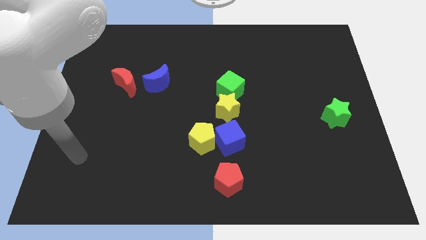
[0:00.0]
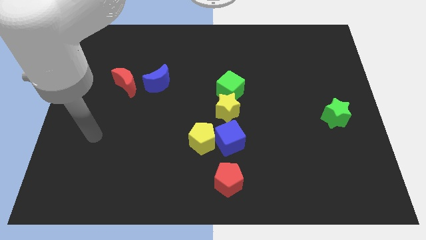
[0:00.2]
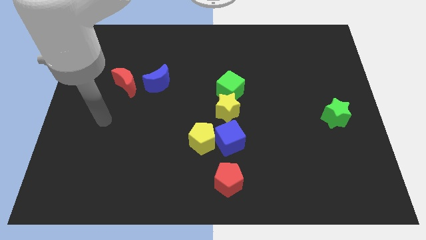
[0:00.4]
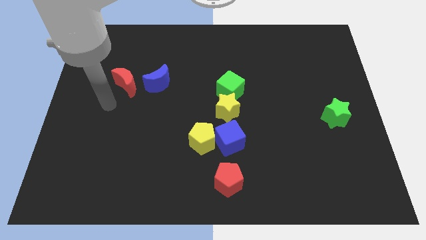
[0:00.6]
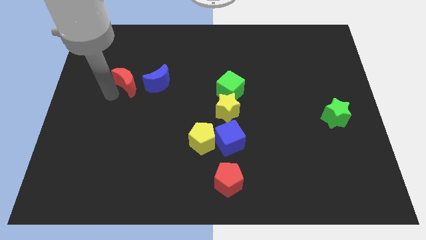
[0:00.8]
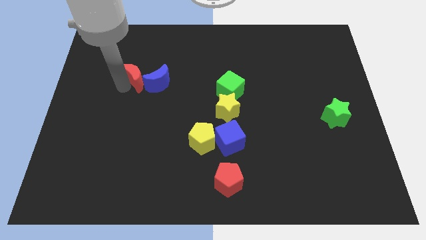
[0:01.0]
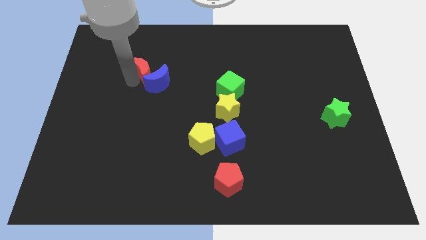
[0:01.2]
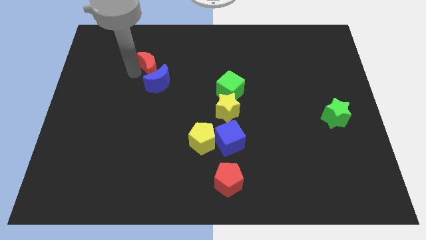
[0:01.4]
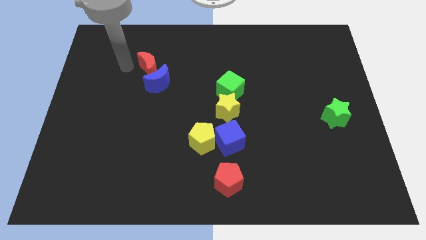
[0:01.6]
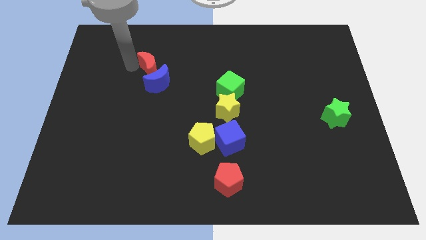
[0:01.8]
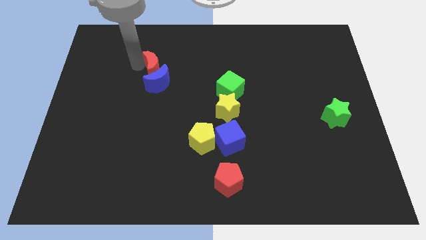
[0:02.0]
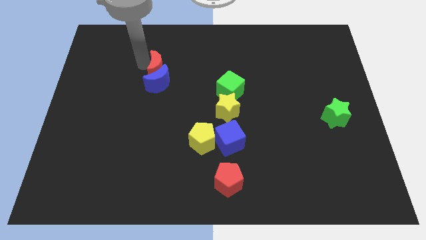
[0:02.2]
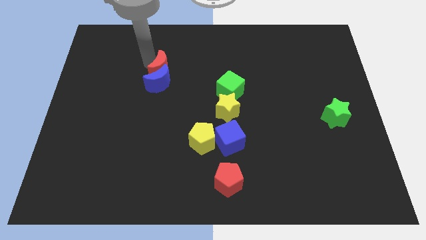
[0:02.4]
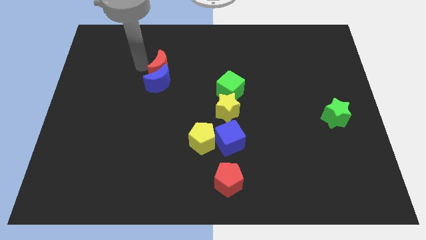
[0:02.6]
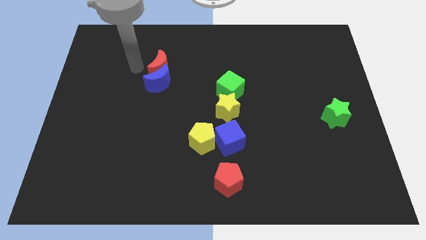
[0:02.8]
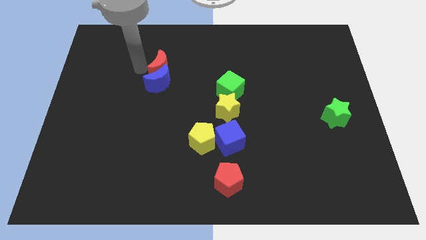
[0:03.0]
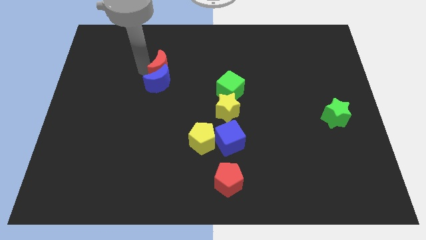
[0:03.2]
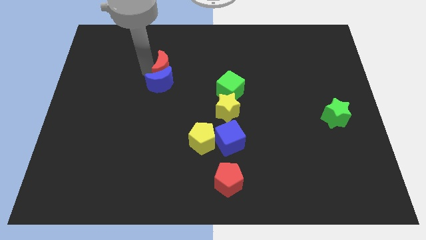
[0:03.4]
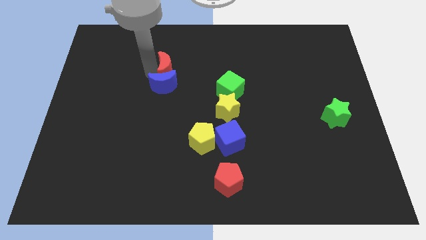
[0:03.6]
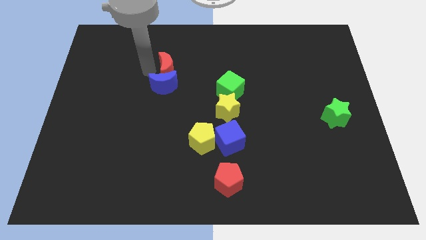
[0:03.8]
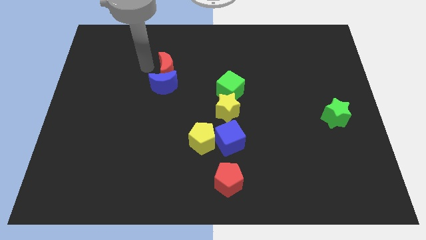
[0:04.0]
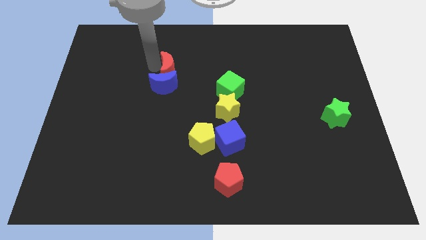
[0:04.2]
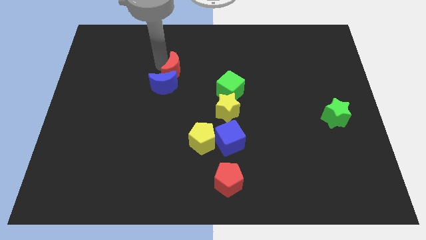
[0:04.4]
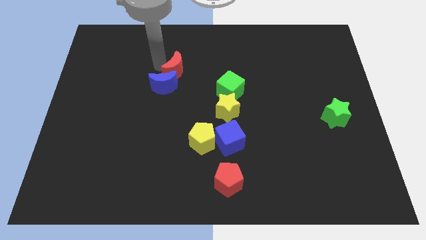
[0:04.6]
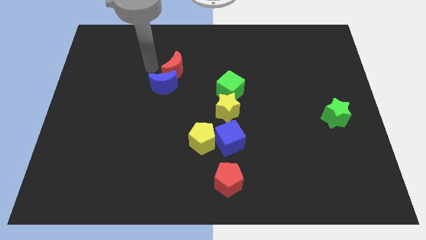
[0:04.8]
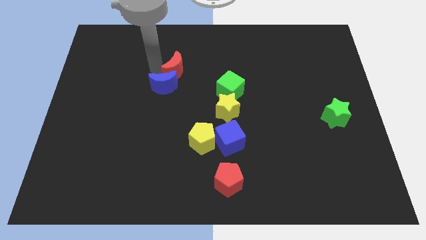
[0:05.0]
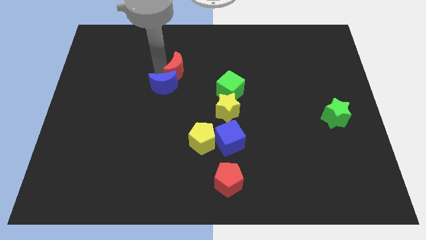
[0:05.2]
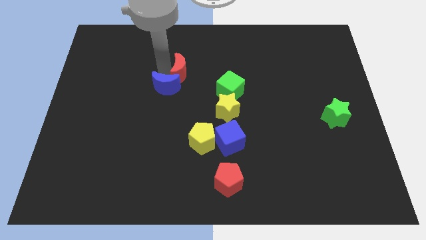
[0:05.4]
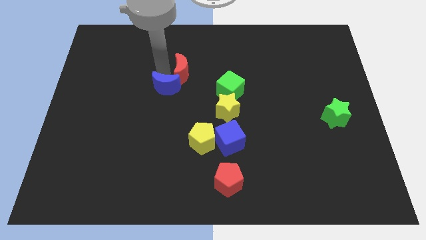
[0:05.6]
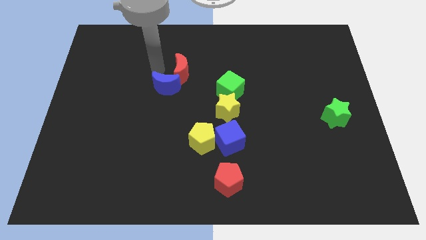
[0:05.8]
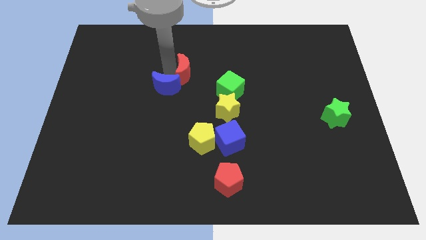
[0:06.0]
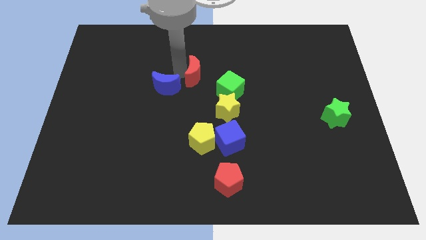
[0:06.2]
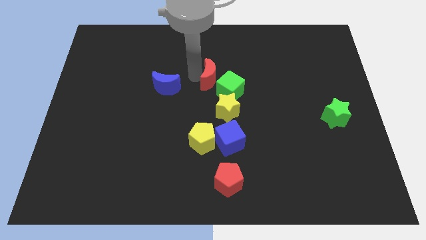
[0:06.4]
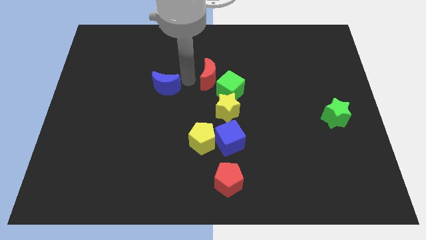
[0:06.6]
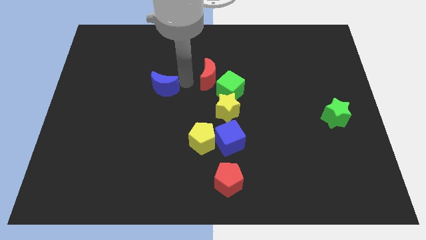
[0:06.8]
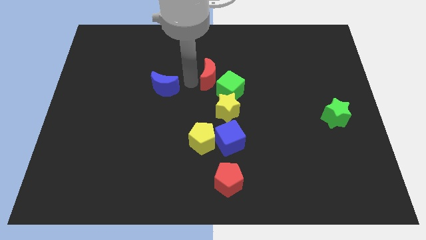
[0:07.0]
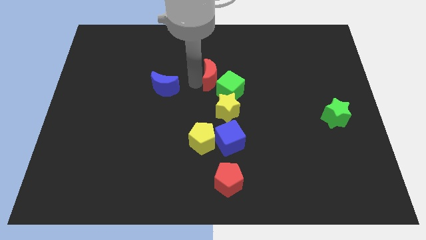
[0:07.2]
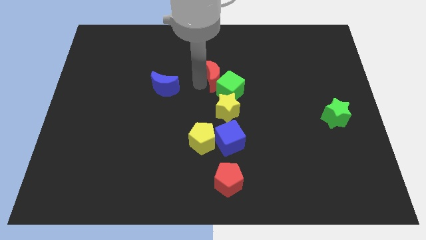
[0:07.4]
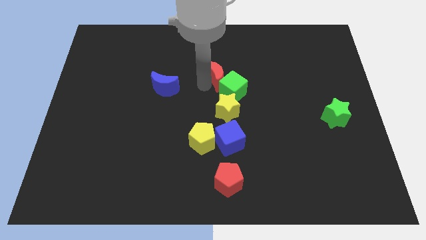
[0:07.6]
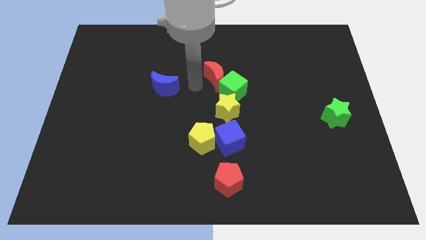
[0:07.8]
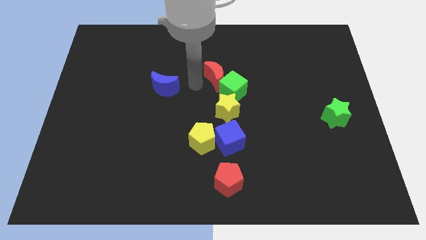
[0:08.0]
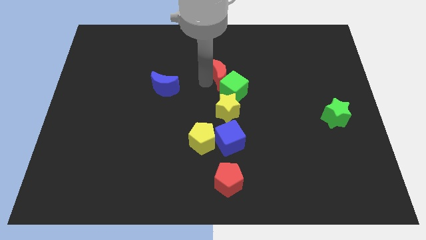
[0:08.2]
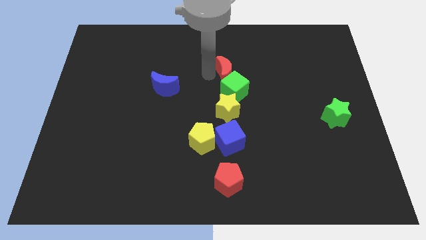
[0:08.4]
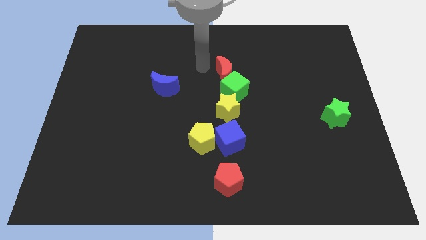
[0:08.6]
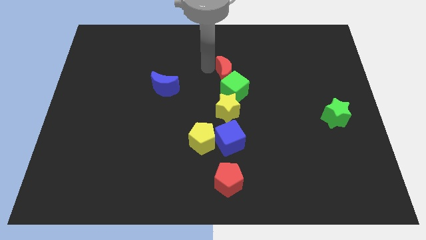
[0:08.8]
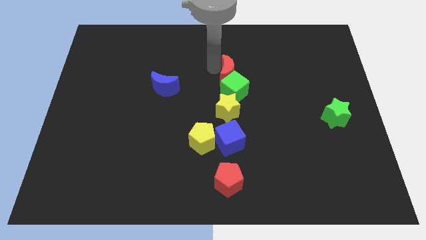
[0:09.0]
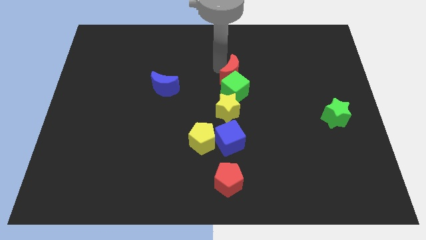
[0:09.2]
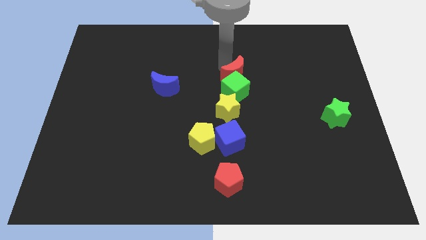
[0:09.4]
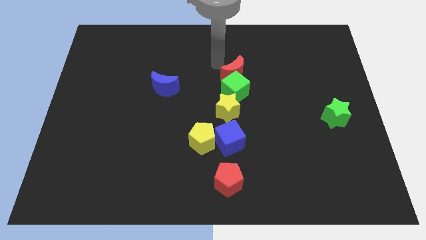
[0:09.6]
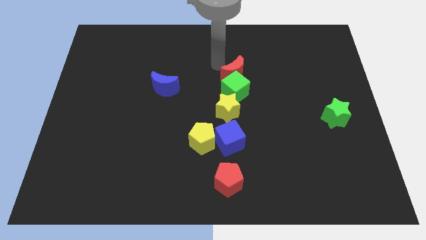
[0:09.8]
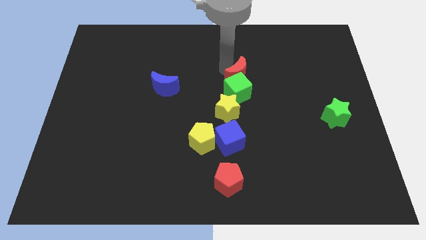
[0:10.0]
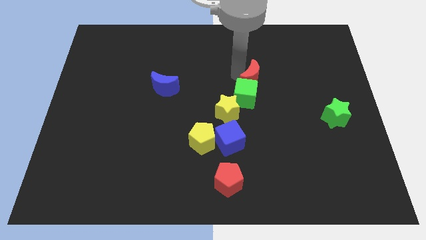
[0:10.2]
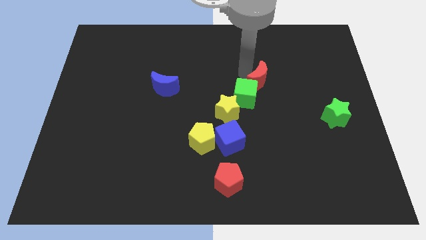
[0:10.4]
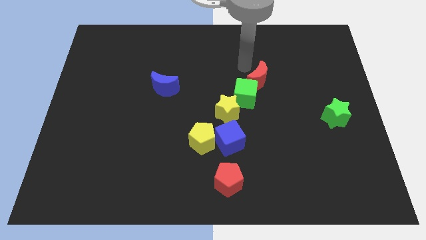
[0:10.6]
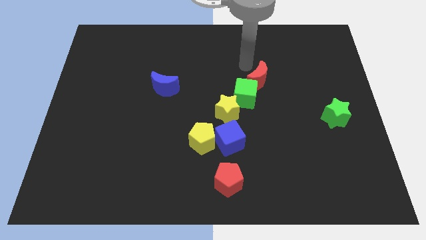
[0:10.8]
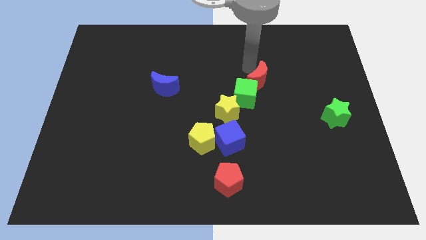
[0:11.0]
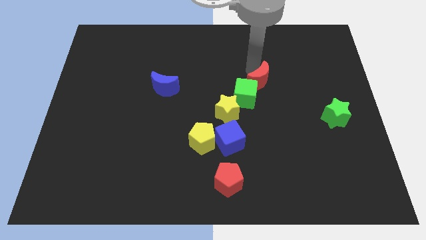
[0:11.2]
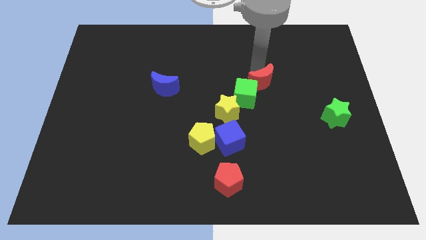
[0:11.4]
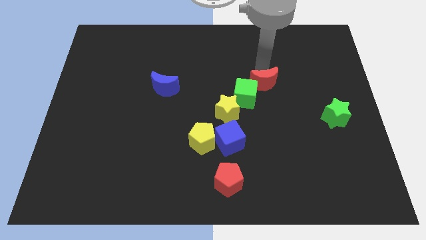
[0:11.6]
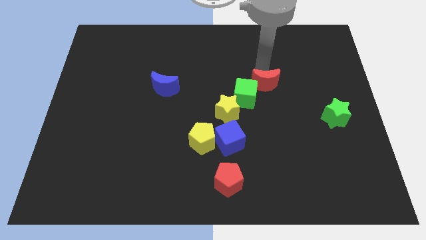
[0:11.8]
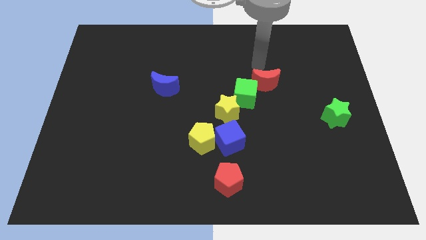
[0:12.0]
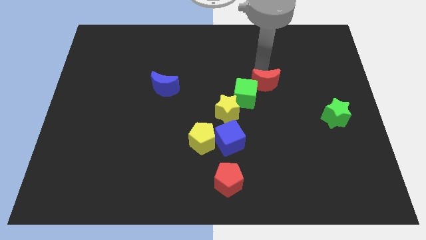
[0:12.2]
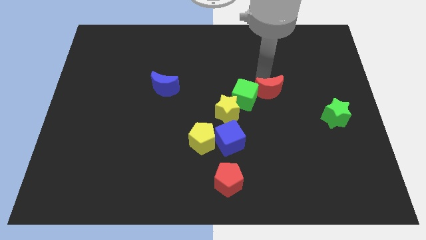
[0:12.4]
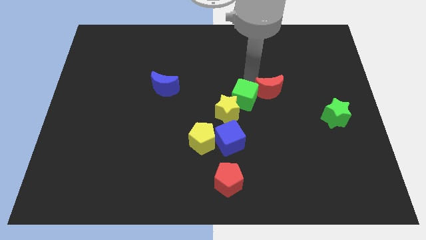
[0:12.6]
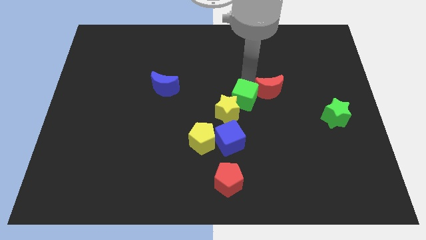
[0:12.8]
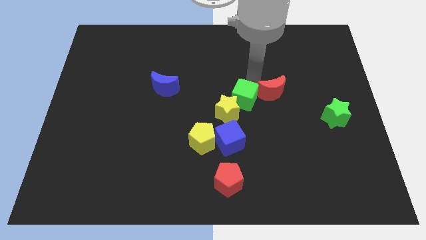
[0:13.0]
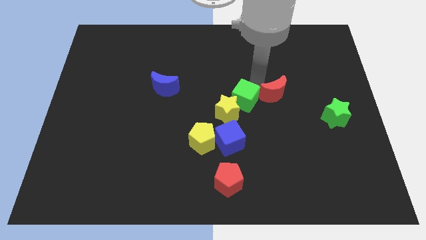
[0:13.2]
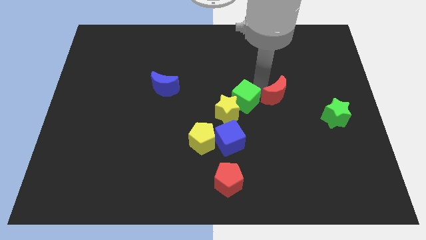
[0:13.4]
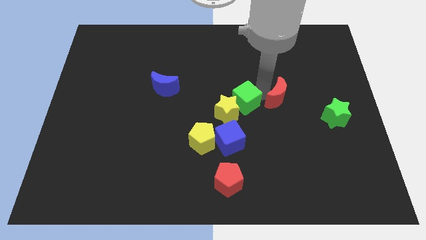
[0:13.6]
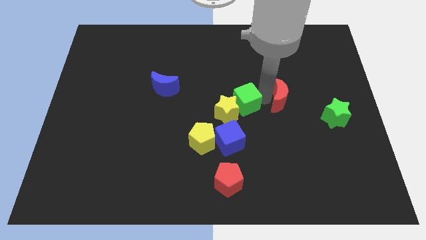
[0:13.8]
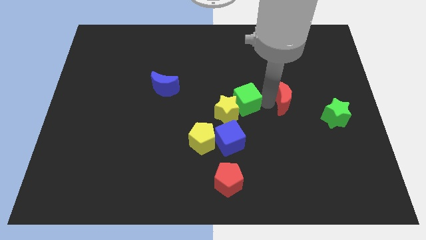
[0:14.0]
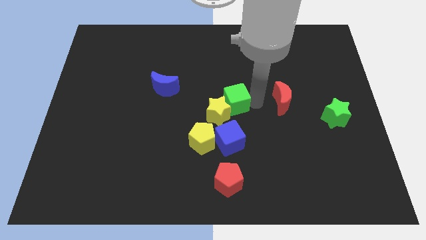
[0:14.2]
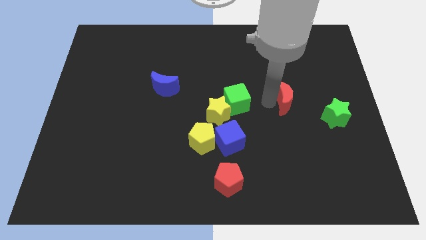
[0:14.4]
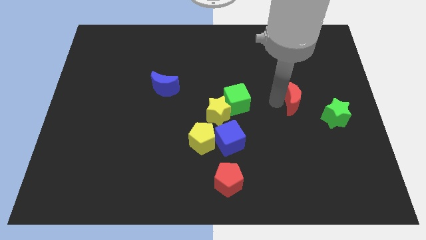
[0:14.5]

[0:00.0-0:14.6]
push the red moon to the top left side of the green star

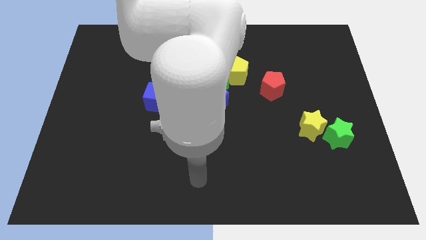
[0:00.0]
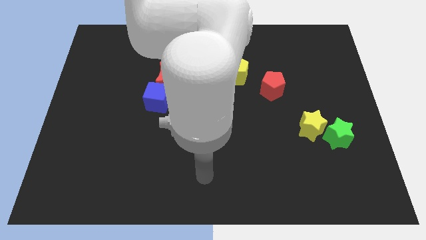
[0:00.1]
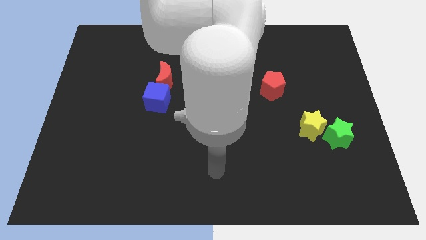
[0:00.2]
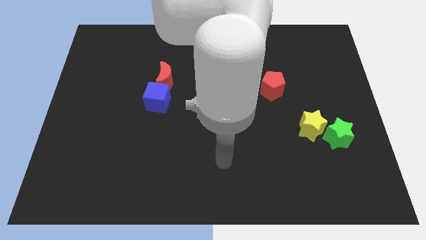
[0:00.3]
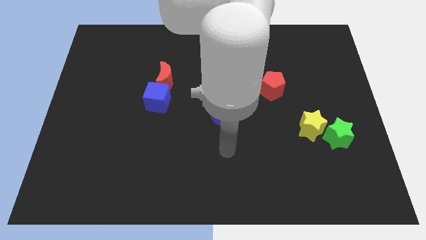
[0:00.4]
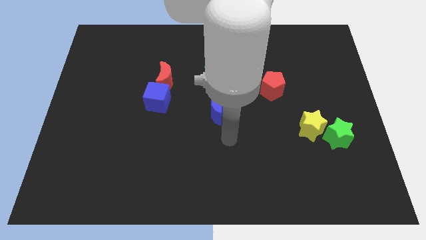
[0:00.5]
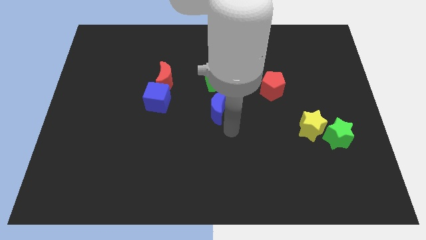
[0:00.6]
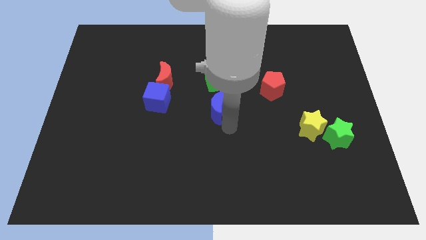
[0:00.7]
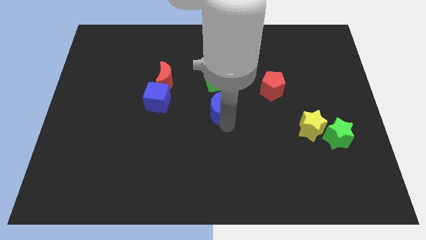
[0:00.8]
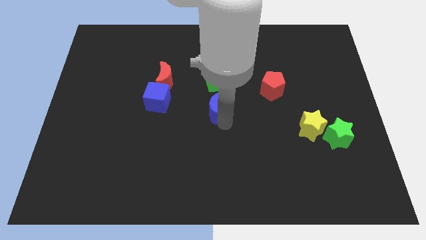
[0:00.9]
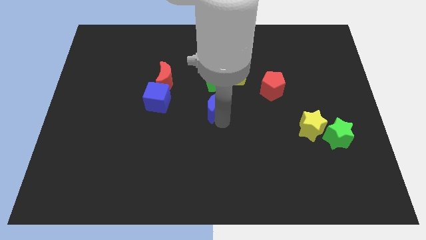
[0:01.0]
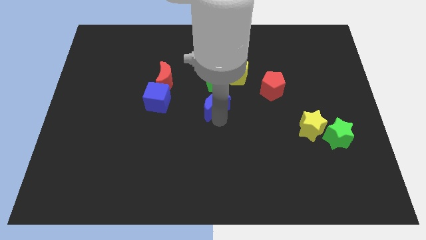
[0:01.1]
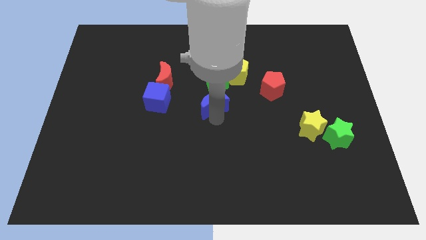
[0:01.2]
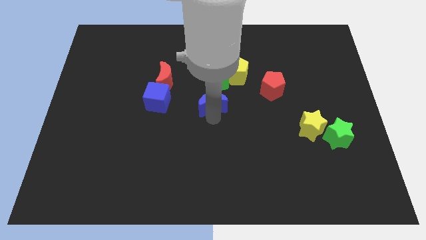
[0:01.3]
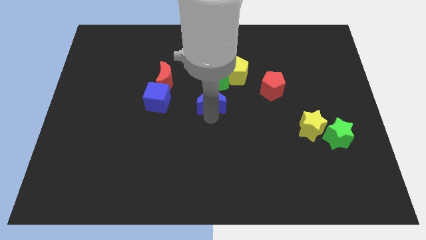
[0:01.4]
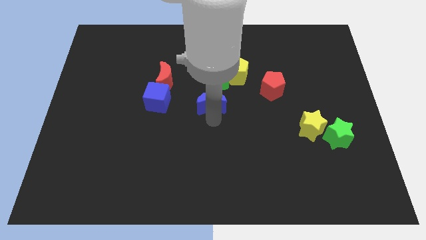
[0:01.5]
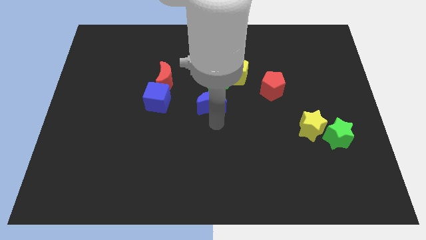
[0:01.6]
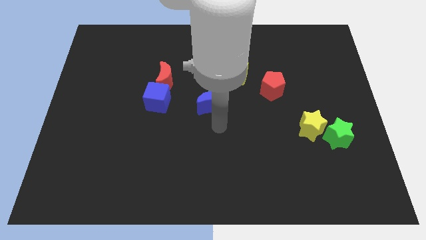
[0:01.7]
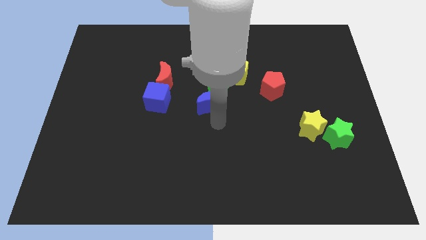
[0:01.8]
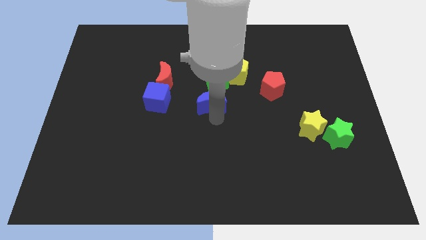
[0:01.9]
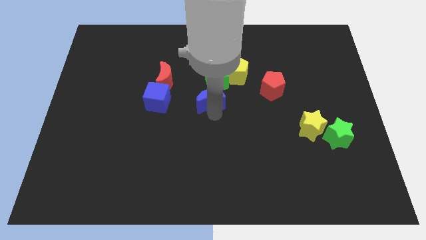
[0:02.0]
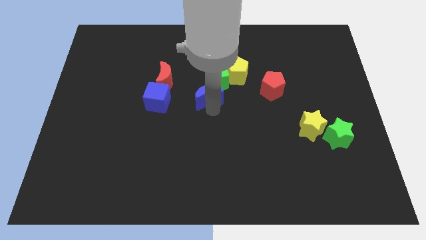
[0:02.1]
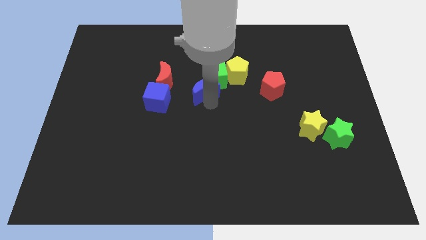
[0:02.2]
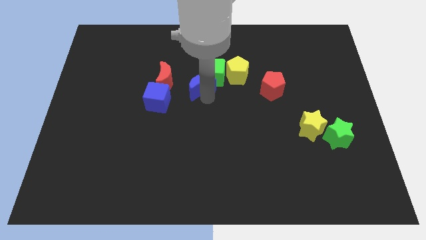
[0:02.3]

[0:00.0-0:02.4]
put the blue moon left of the yellow pentagon
